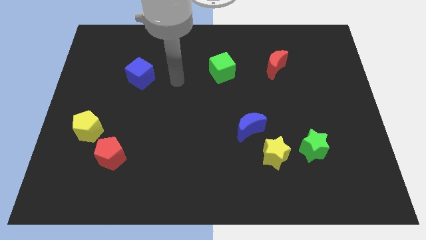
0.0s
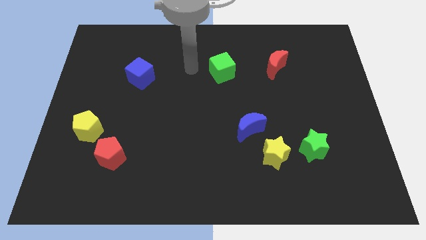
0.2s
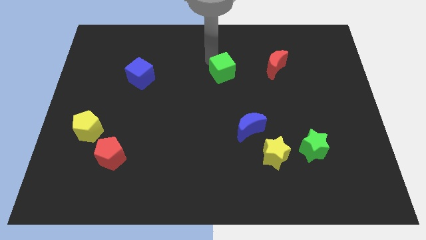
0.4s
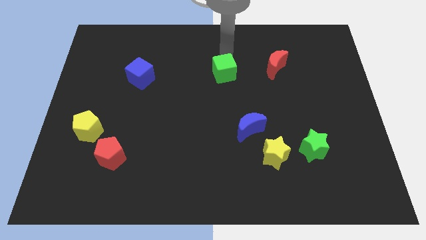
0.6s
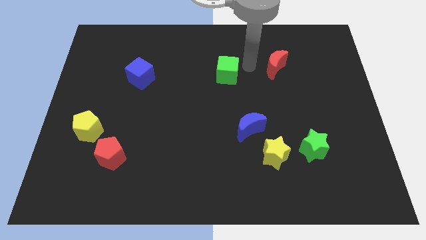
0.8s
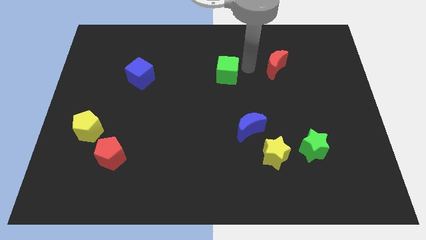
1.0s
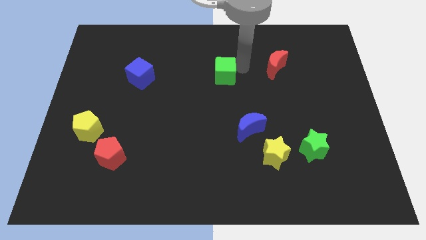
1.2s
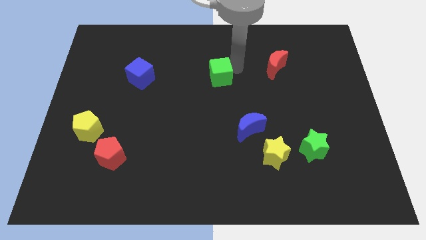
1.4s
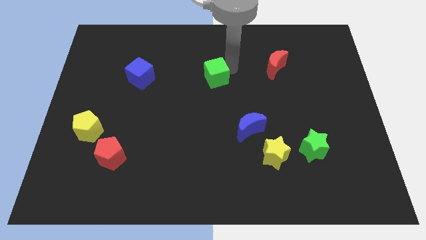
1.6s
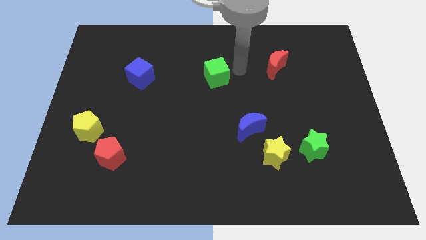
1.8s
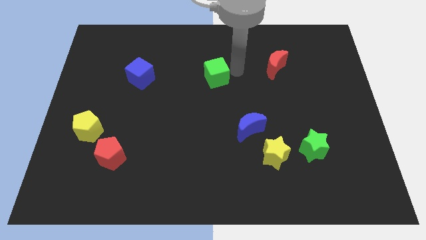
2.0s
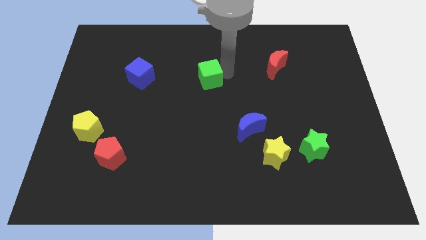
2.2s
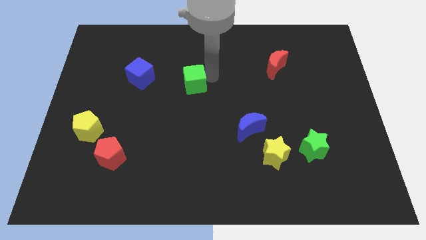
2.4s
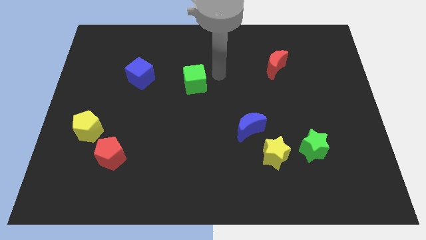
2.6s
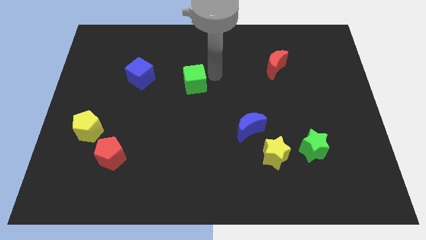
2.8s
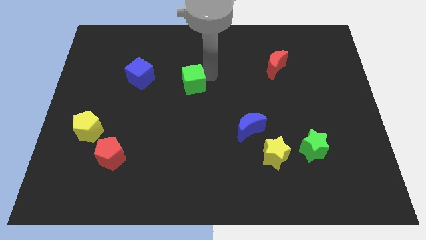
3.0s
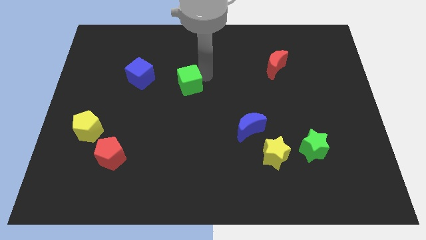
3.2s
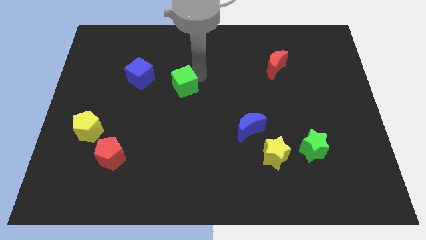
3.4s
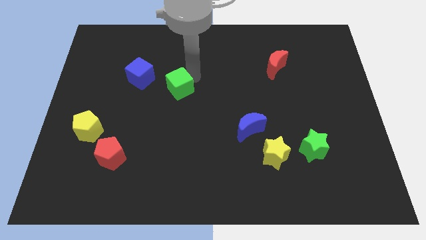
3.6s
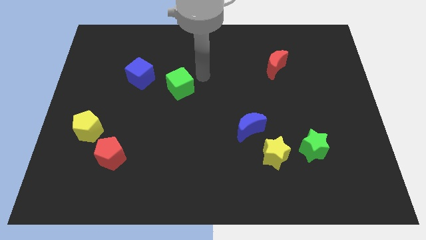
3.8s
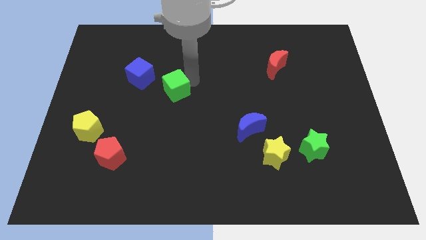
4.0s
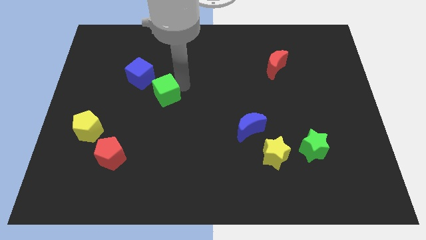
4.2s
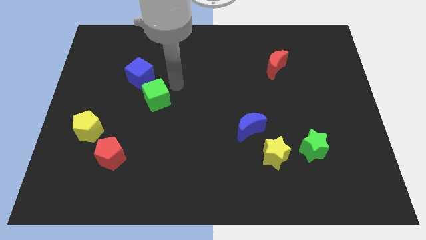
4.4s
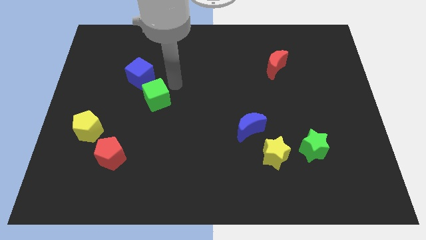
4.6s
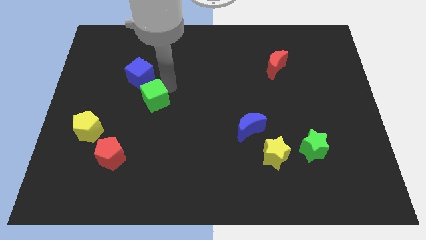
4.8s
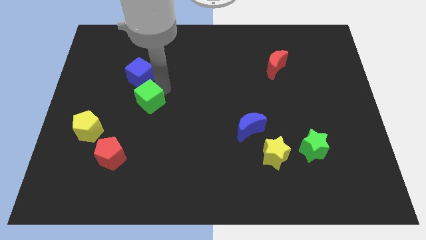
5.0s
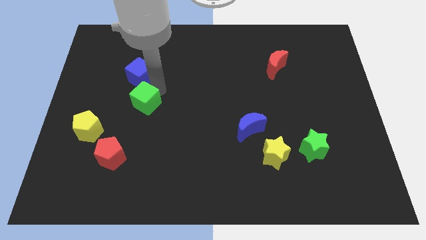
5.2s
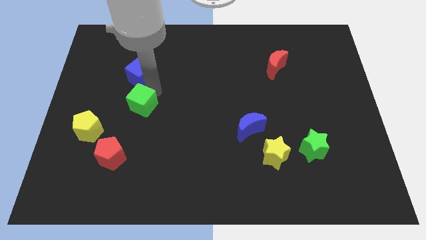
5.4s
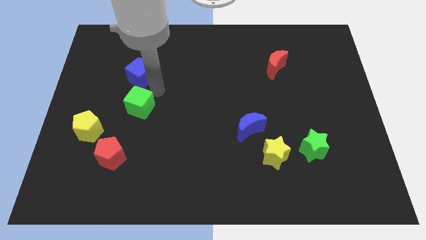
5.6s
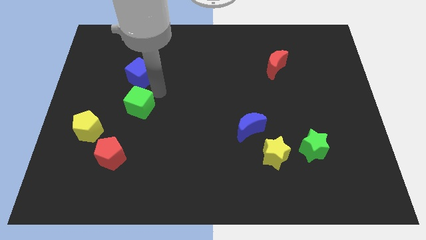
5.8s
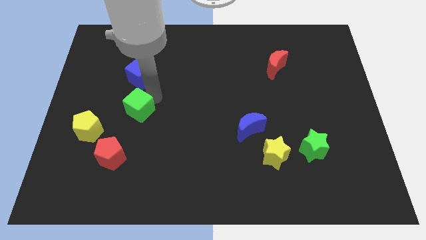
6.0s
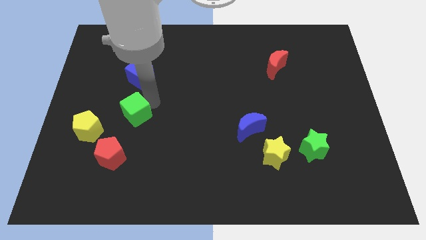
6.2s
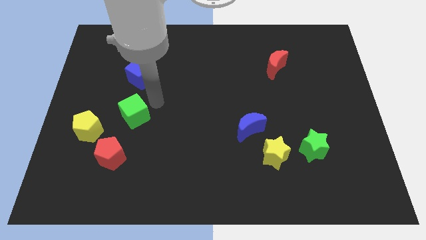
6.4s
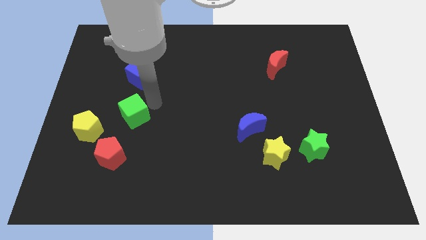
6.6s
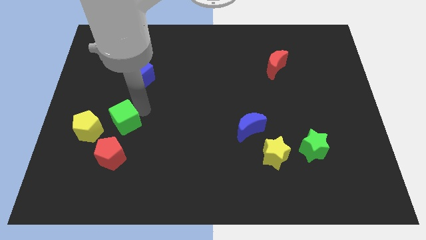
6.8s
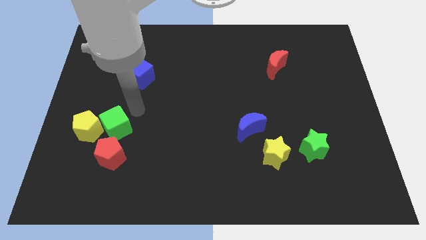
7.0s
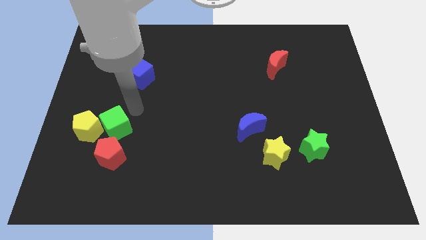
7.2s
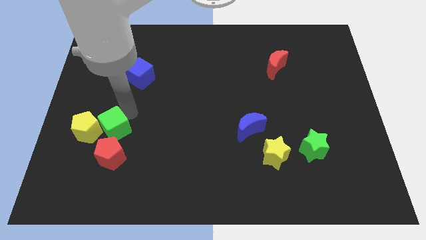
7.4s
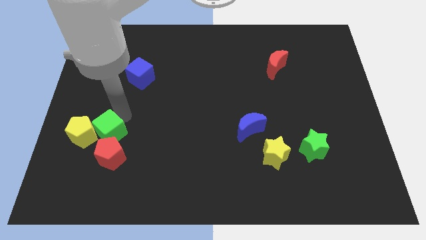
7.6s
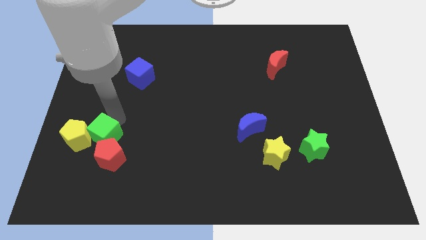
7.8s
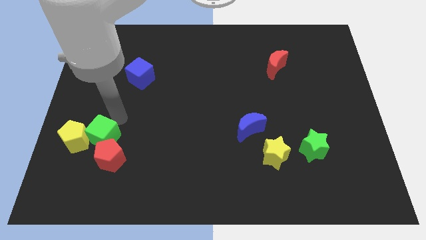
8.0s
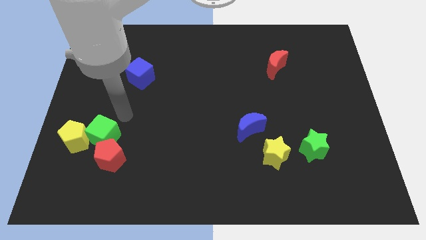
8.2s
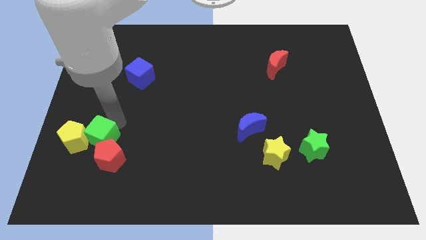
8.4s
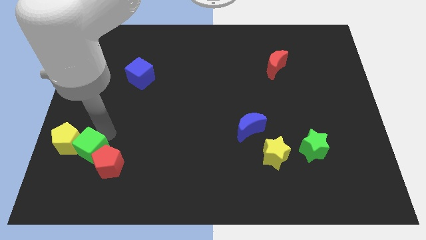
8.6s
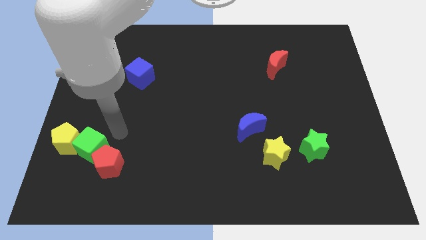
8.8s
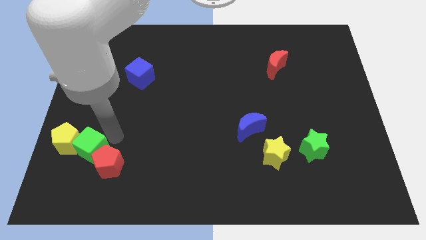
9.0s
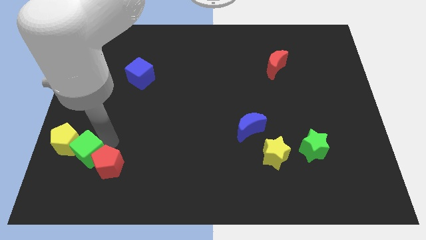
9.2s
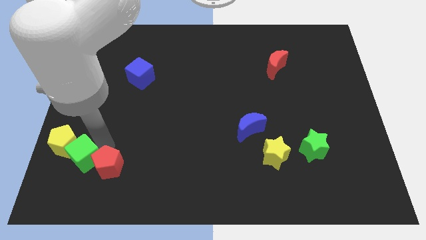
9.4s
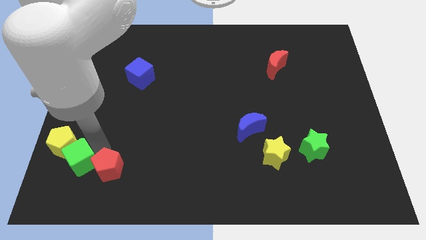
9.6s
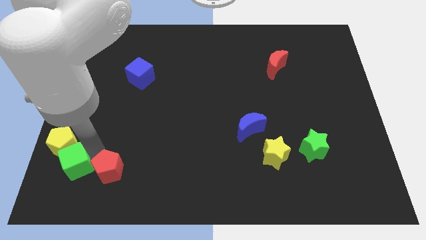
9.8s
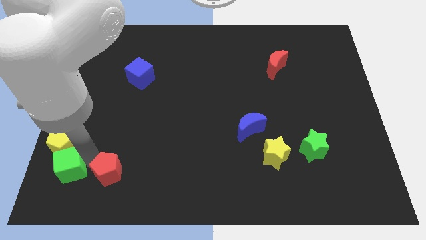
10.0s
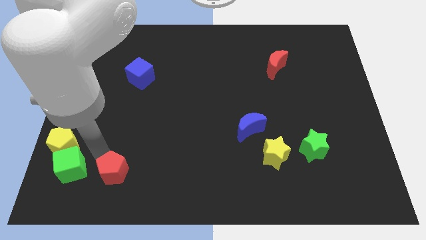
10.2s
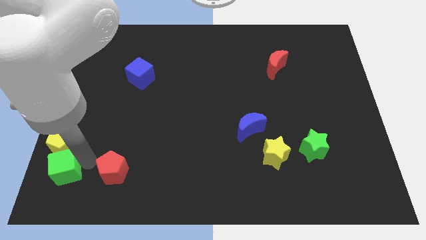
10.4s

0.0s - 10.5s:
slide the green cube to the bottom left
